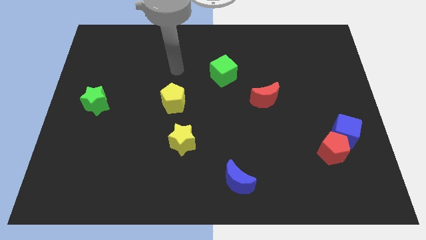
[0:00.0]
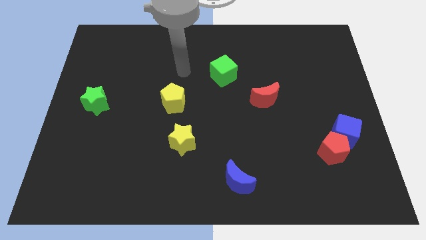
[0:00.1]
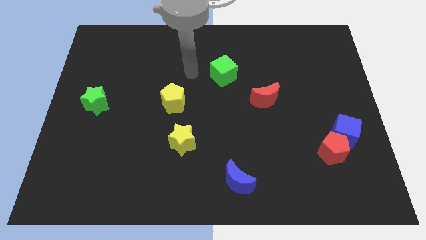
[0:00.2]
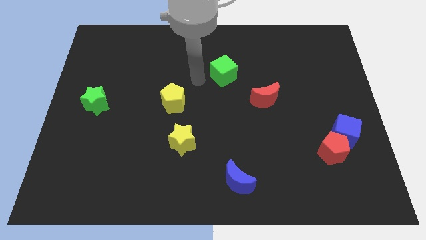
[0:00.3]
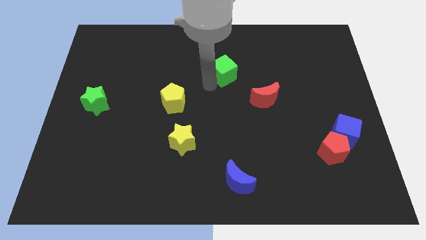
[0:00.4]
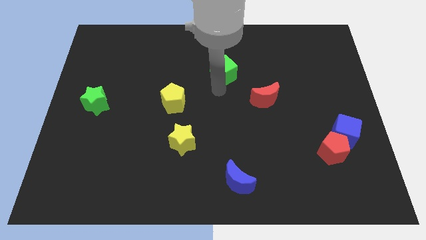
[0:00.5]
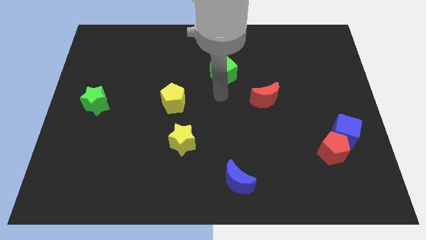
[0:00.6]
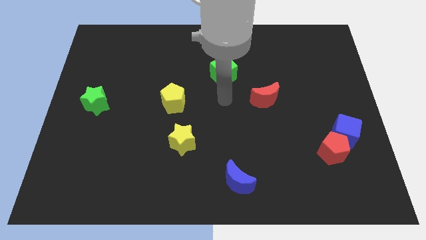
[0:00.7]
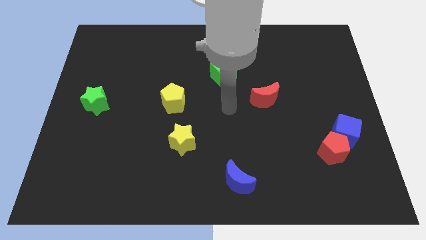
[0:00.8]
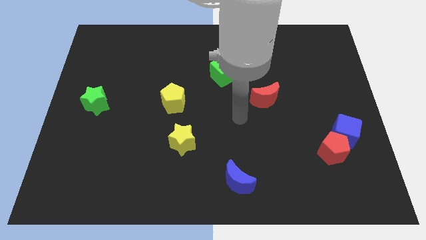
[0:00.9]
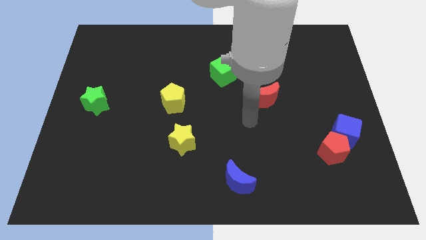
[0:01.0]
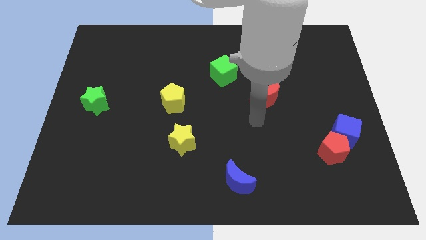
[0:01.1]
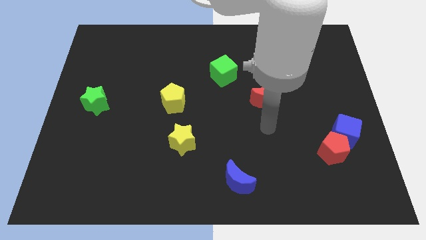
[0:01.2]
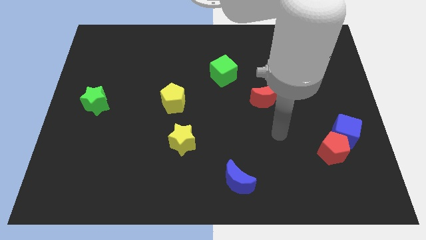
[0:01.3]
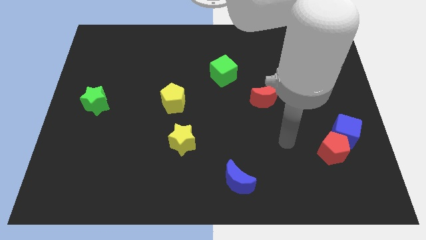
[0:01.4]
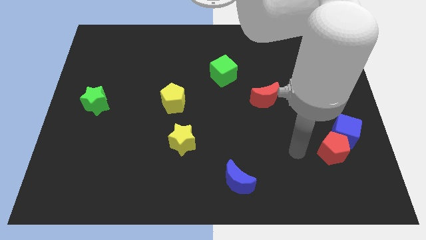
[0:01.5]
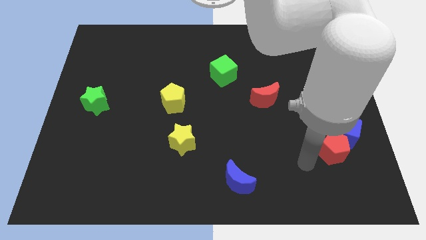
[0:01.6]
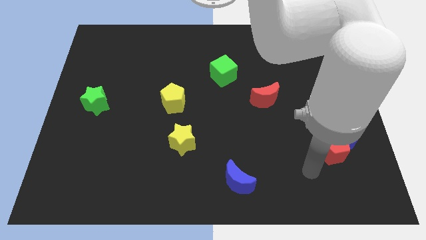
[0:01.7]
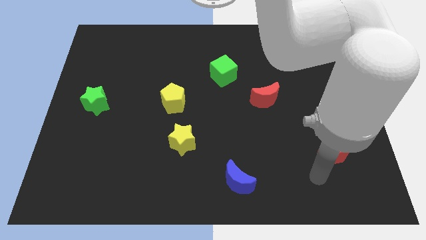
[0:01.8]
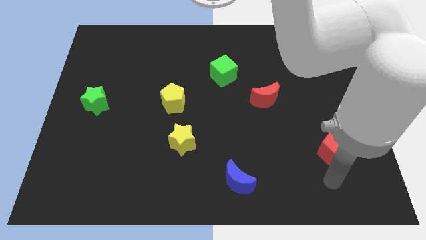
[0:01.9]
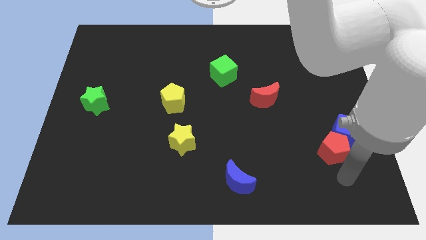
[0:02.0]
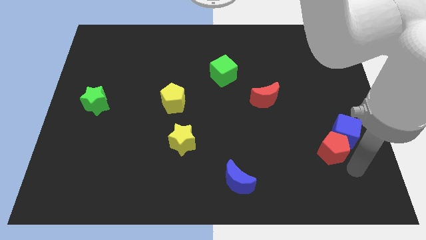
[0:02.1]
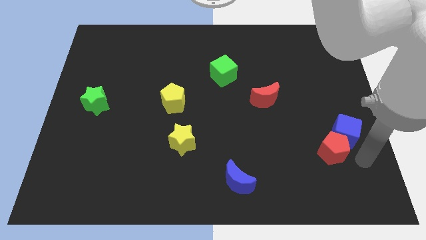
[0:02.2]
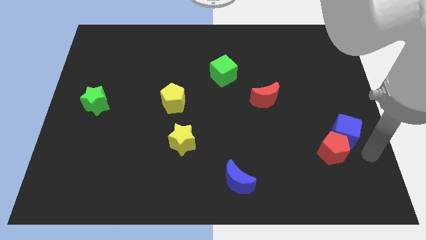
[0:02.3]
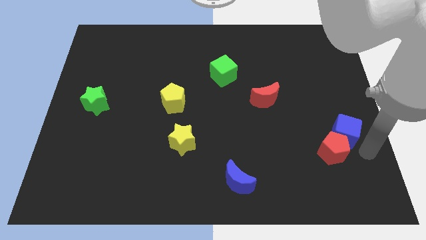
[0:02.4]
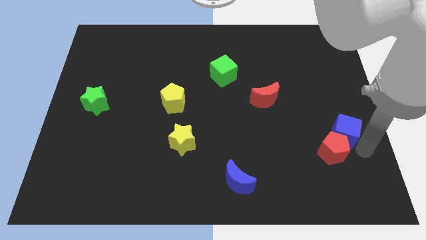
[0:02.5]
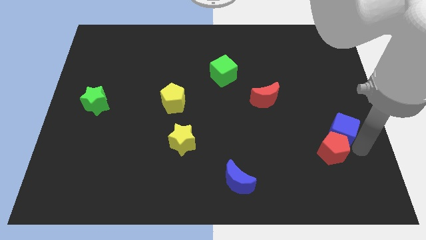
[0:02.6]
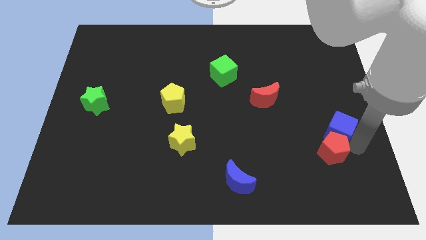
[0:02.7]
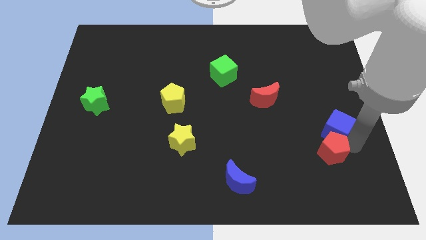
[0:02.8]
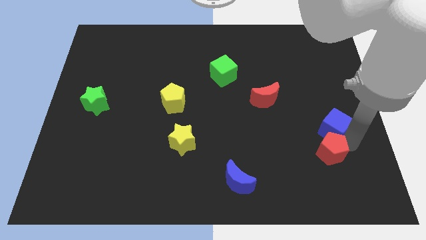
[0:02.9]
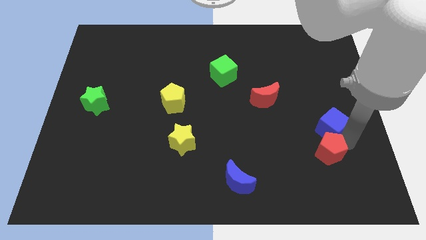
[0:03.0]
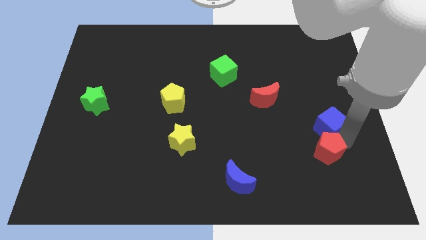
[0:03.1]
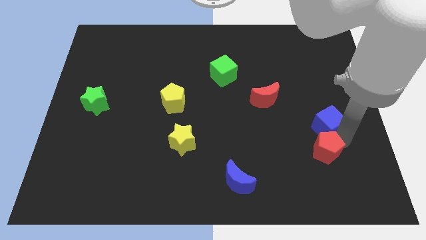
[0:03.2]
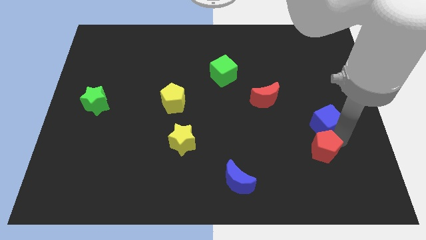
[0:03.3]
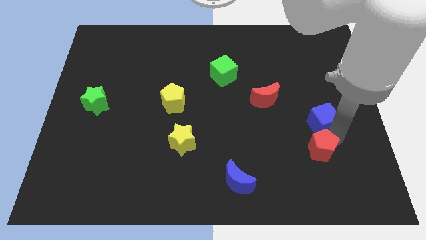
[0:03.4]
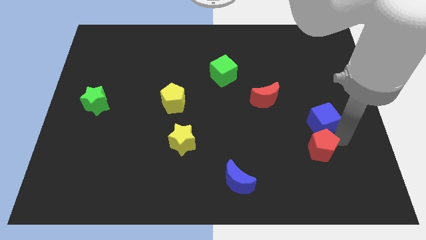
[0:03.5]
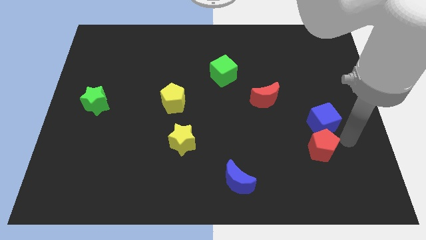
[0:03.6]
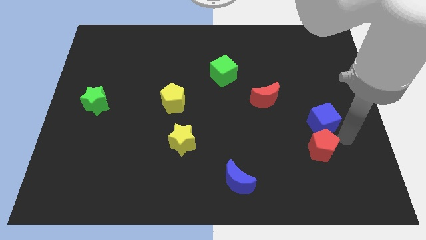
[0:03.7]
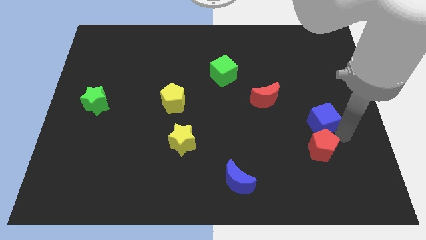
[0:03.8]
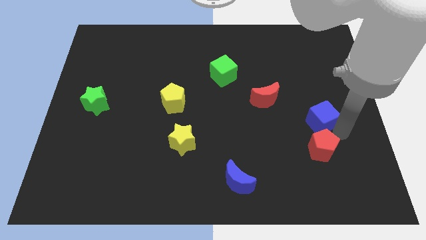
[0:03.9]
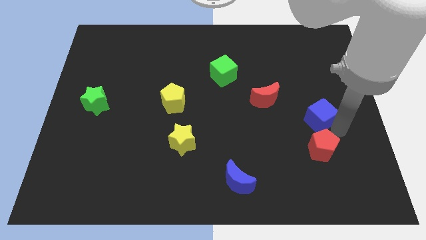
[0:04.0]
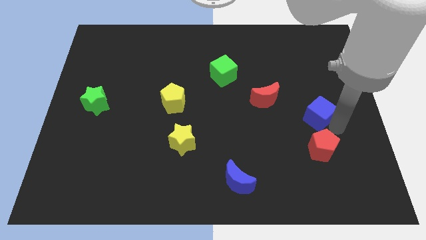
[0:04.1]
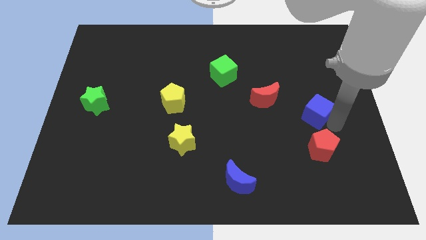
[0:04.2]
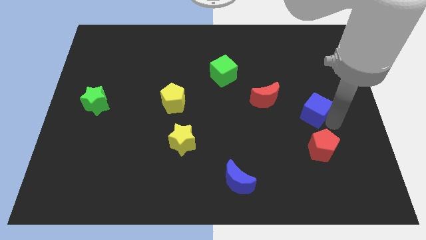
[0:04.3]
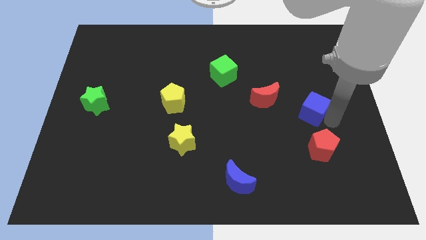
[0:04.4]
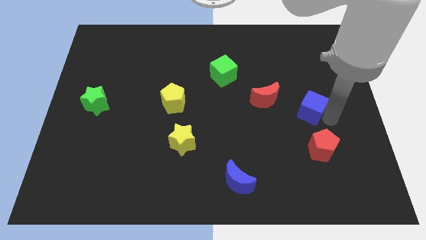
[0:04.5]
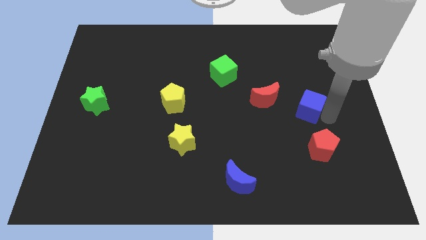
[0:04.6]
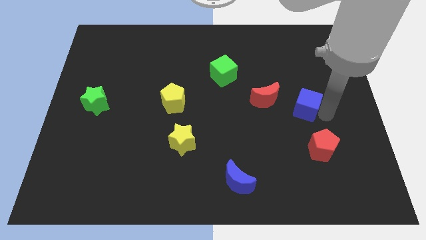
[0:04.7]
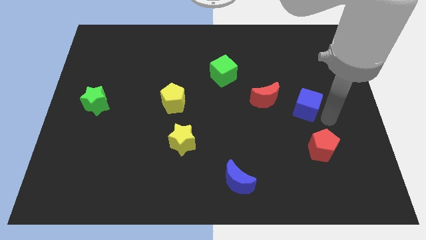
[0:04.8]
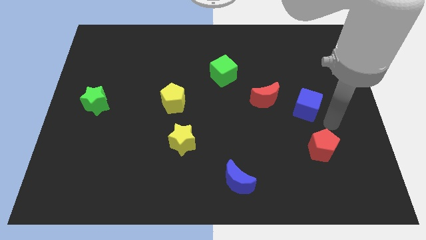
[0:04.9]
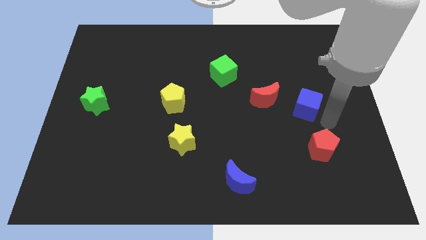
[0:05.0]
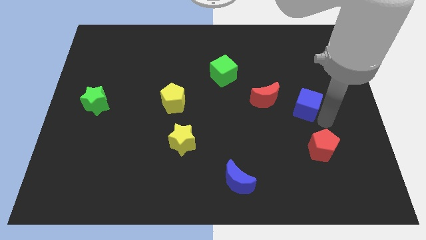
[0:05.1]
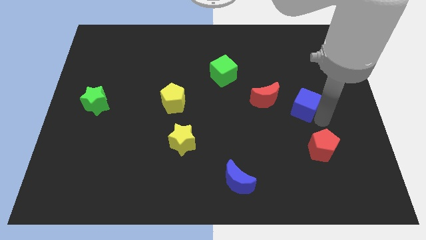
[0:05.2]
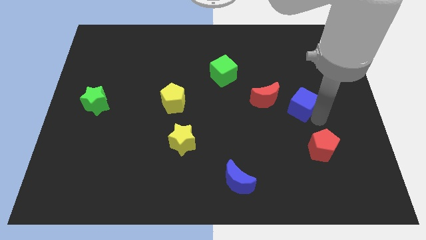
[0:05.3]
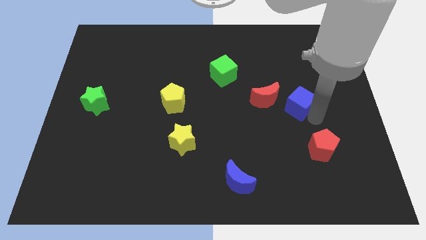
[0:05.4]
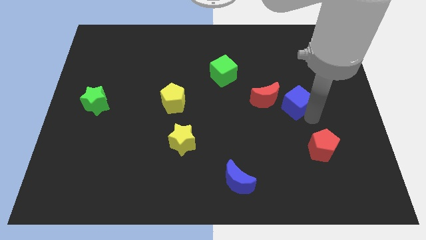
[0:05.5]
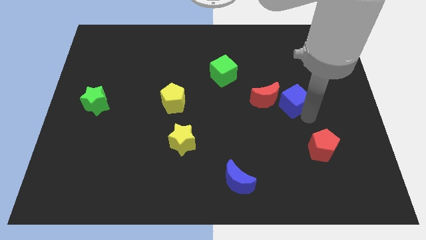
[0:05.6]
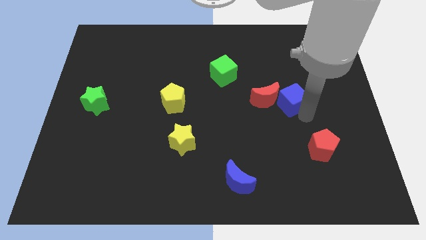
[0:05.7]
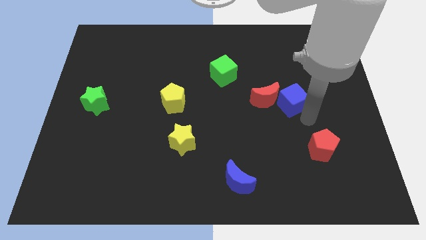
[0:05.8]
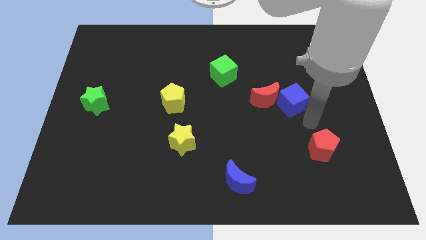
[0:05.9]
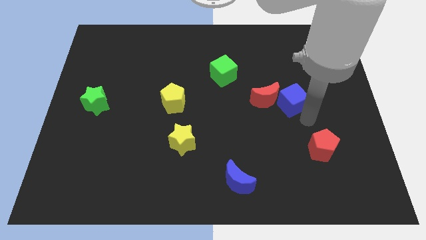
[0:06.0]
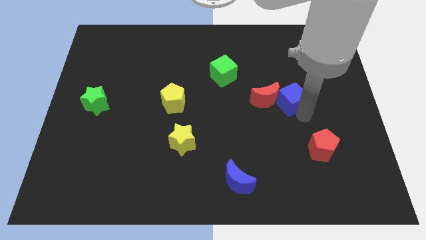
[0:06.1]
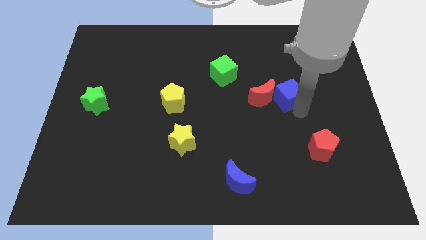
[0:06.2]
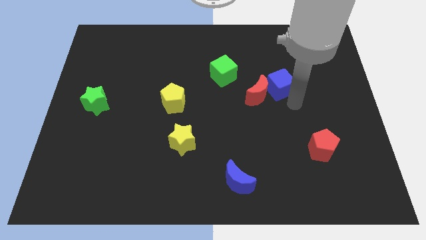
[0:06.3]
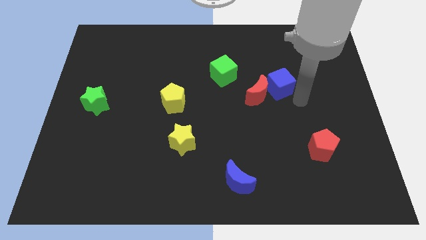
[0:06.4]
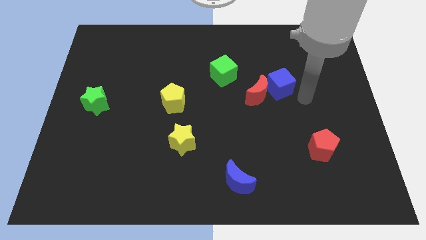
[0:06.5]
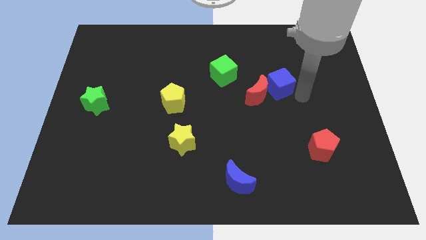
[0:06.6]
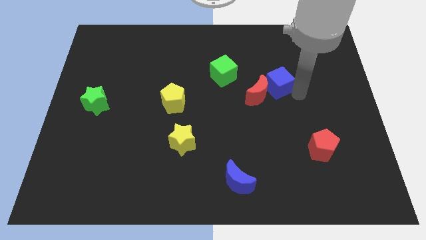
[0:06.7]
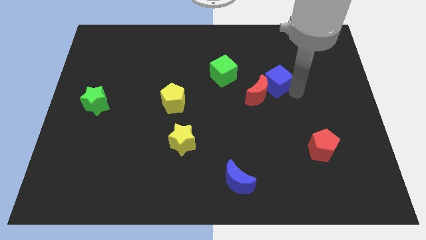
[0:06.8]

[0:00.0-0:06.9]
slide the blue cube diagonally up and left

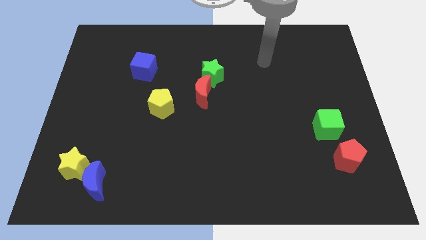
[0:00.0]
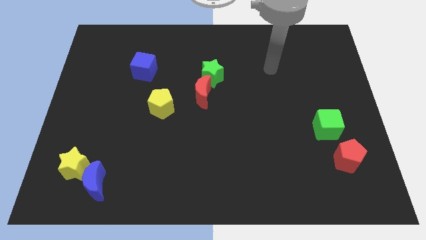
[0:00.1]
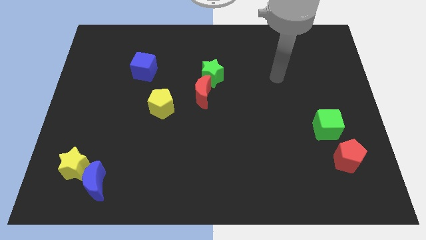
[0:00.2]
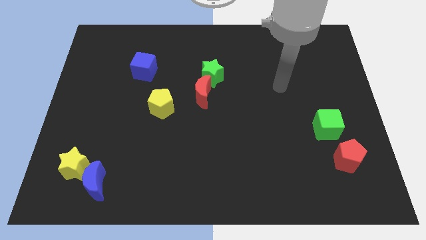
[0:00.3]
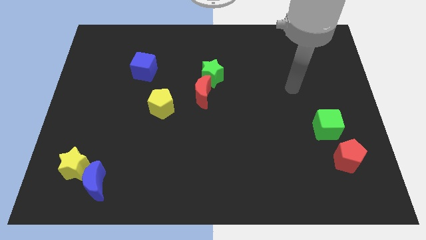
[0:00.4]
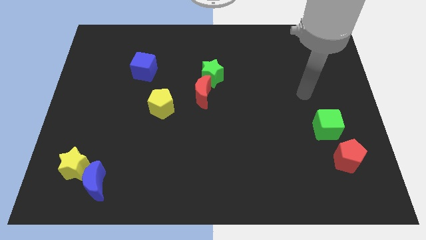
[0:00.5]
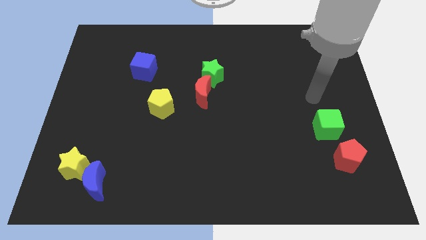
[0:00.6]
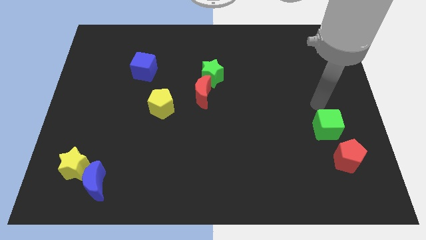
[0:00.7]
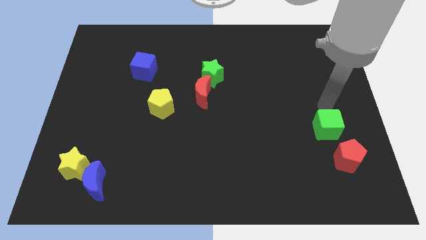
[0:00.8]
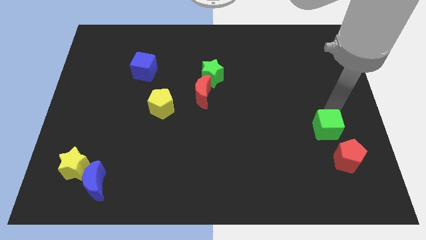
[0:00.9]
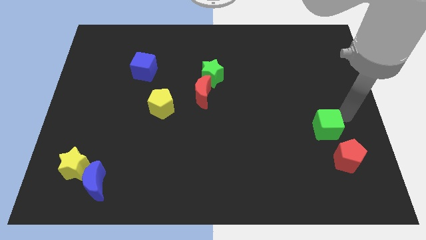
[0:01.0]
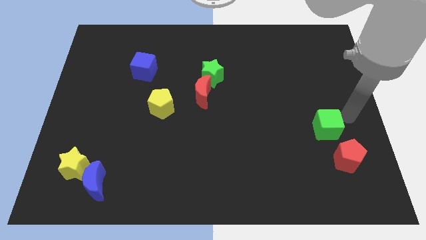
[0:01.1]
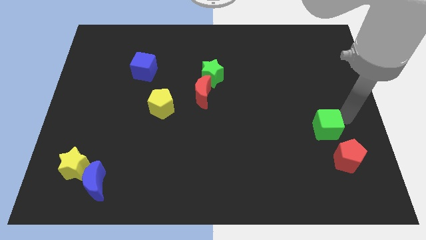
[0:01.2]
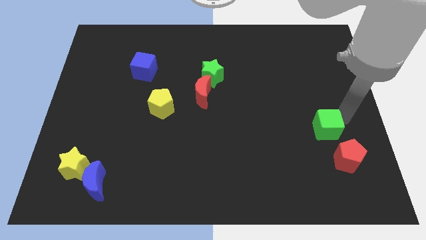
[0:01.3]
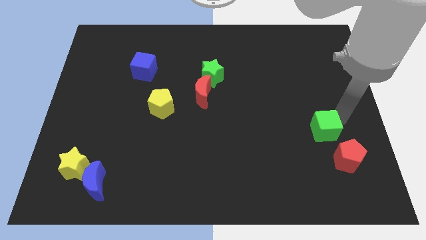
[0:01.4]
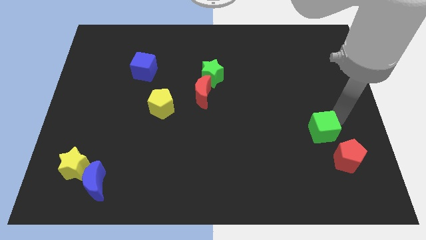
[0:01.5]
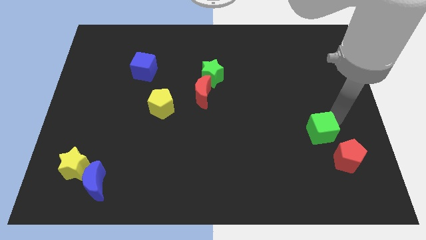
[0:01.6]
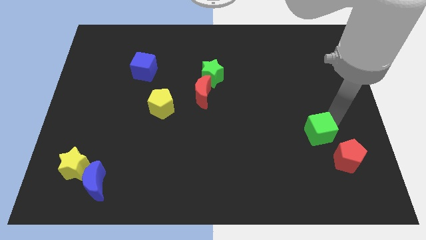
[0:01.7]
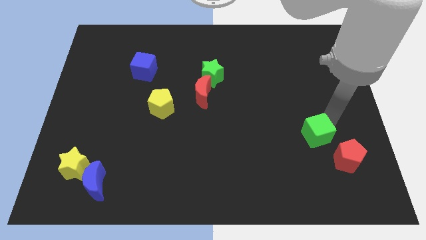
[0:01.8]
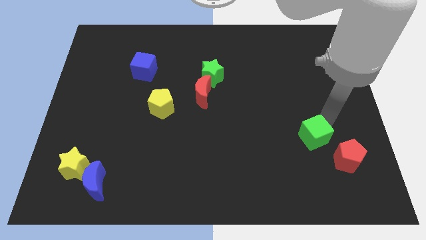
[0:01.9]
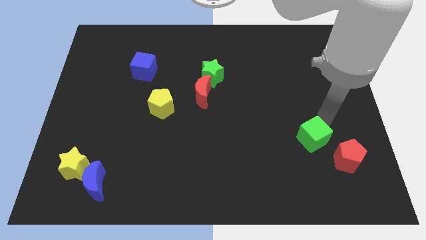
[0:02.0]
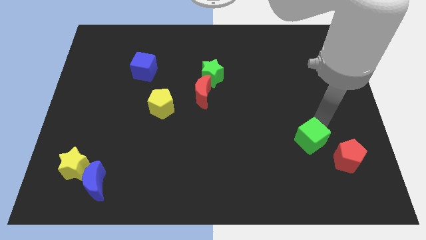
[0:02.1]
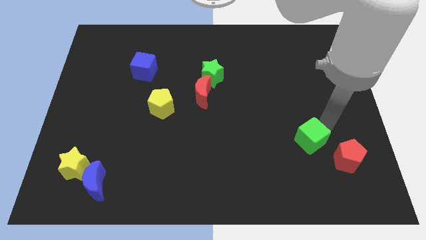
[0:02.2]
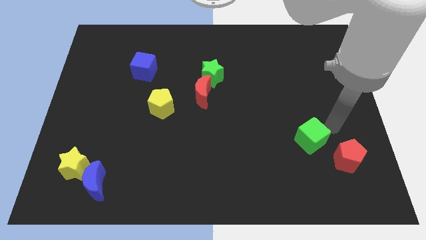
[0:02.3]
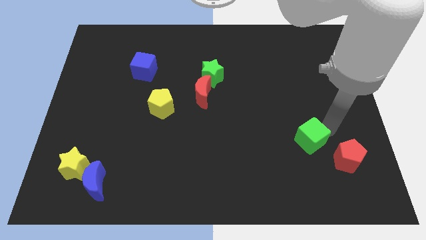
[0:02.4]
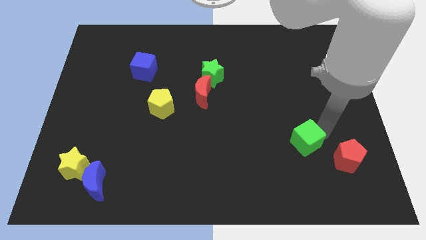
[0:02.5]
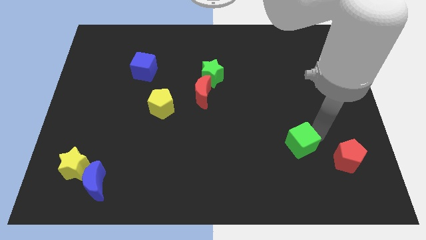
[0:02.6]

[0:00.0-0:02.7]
slightly slide the green cube down and to the left
